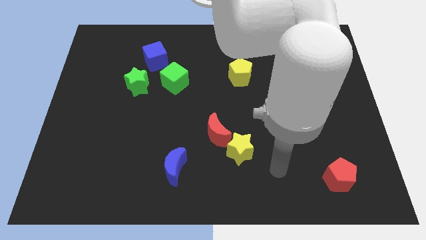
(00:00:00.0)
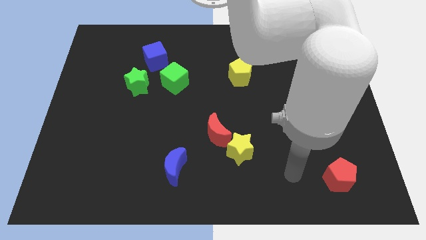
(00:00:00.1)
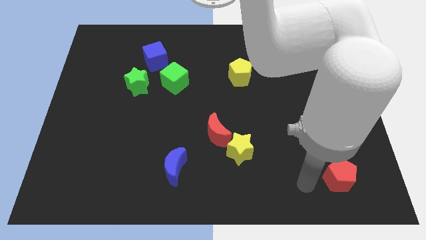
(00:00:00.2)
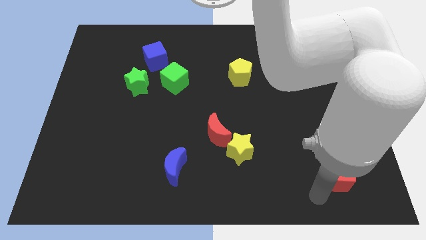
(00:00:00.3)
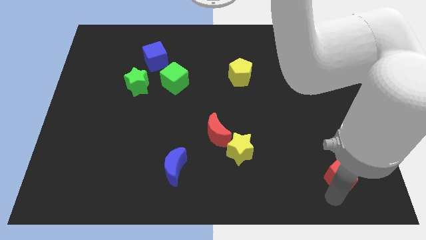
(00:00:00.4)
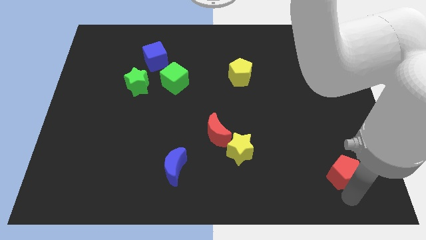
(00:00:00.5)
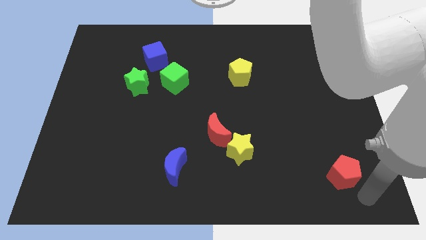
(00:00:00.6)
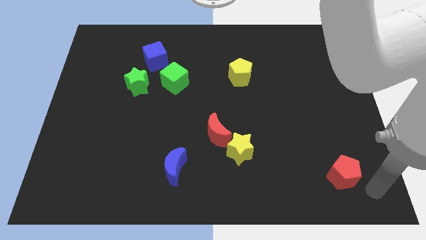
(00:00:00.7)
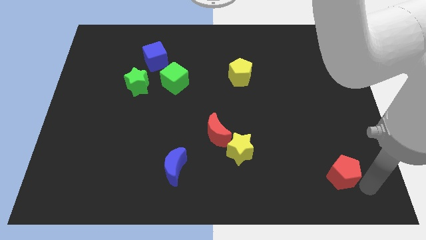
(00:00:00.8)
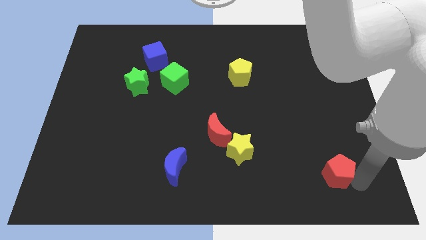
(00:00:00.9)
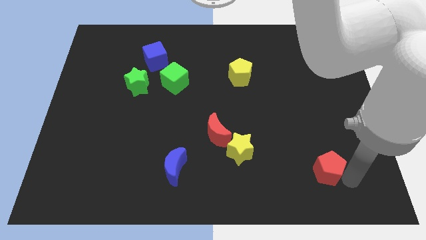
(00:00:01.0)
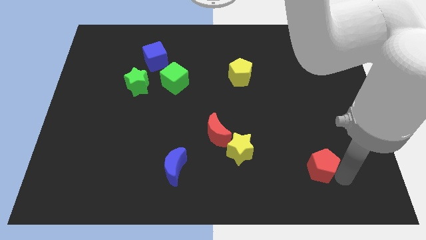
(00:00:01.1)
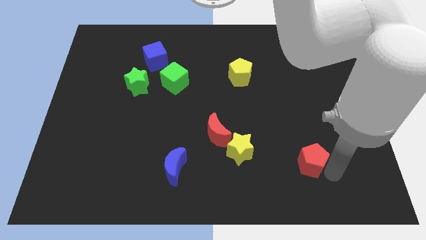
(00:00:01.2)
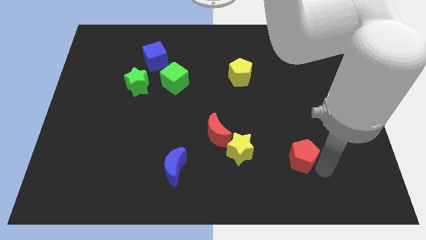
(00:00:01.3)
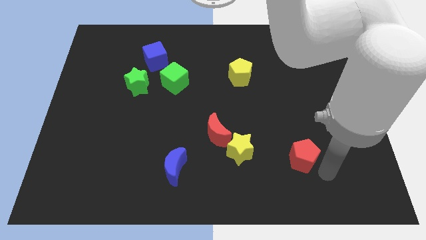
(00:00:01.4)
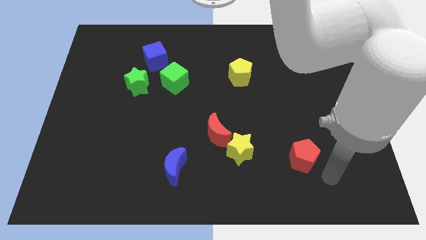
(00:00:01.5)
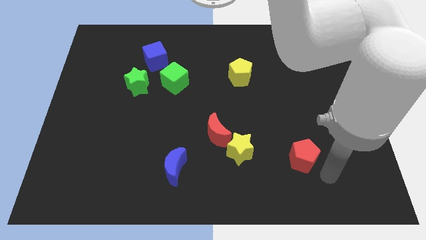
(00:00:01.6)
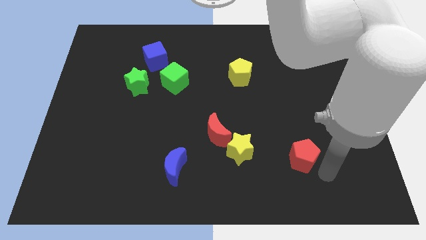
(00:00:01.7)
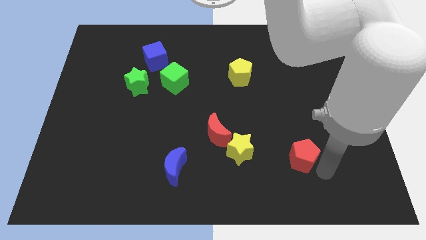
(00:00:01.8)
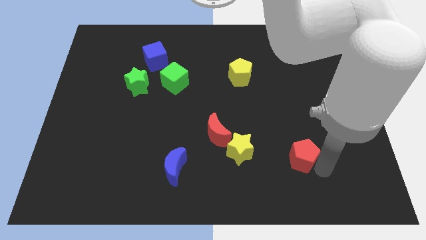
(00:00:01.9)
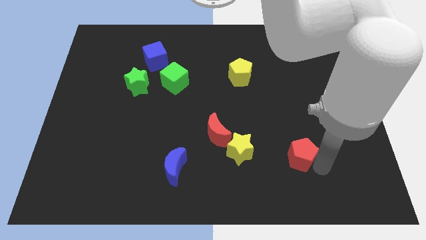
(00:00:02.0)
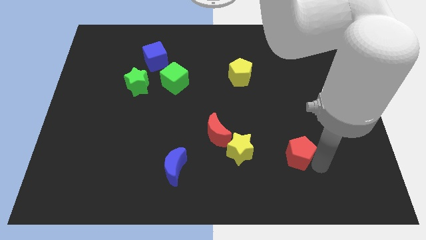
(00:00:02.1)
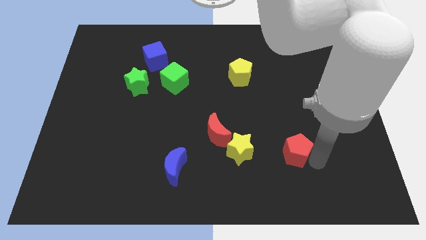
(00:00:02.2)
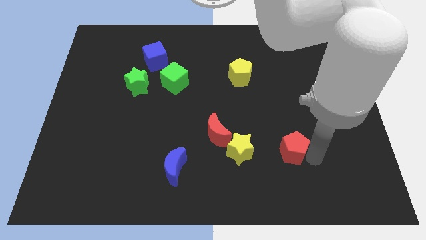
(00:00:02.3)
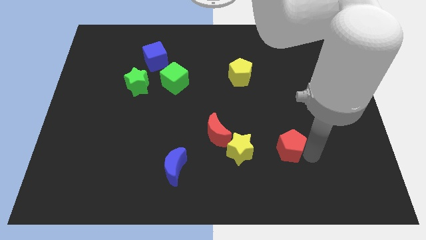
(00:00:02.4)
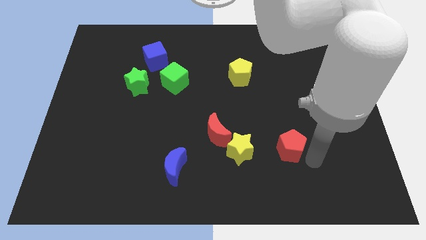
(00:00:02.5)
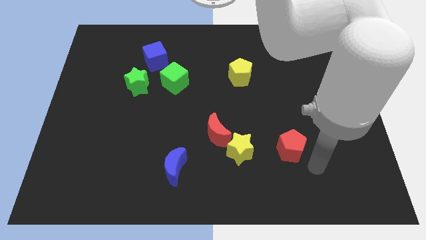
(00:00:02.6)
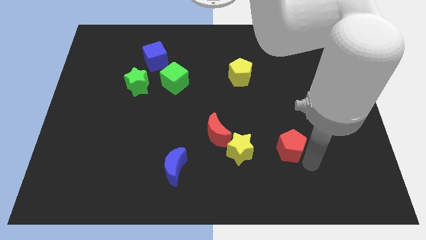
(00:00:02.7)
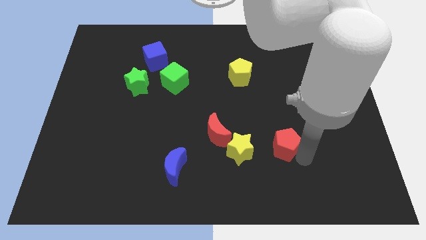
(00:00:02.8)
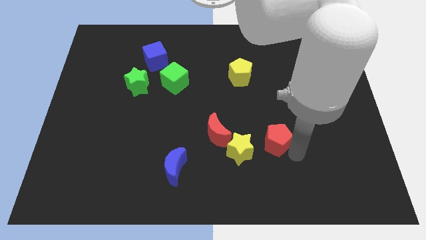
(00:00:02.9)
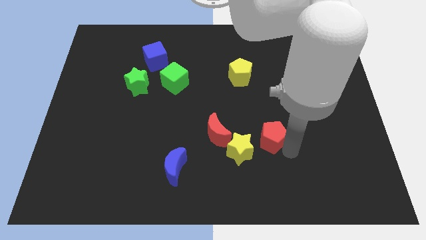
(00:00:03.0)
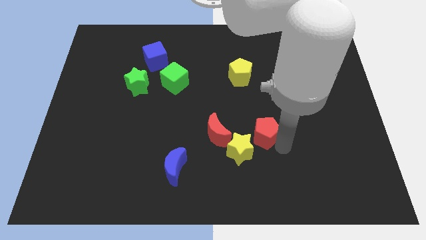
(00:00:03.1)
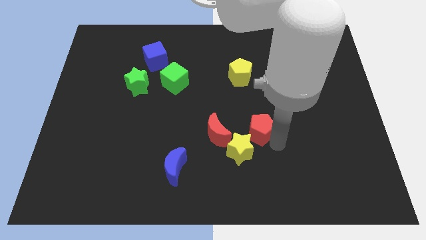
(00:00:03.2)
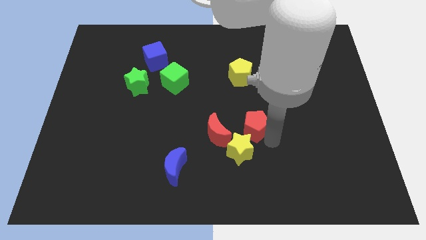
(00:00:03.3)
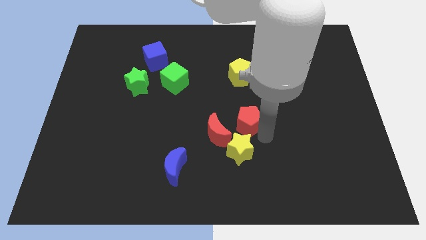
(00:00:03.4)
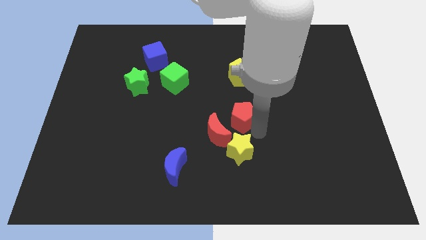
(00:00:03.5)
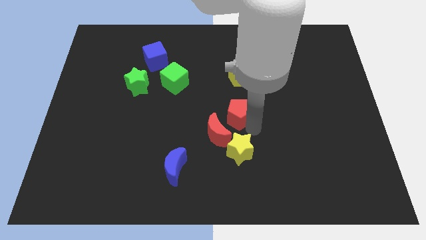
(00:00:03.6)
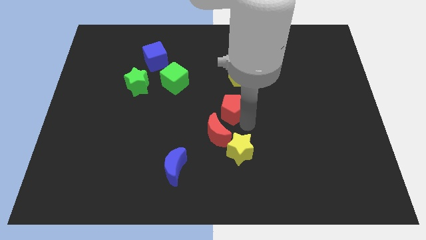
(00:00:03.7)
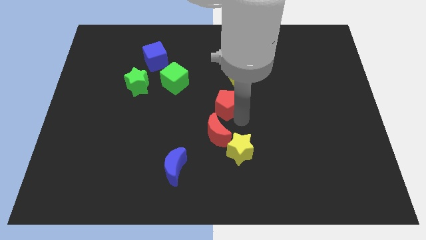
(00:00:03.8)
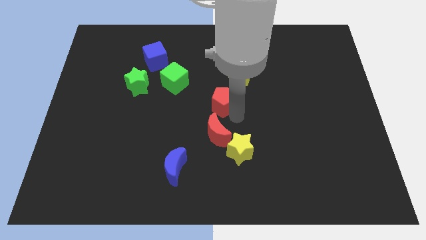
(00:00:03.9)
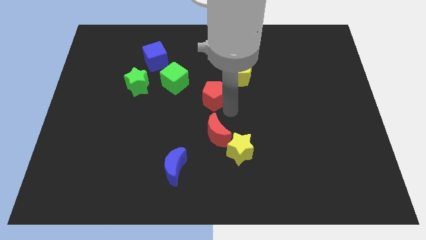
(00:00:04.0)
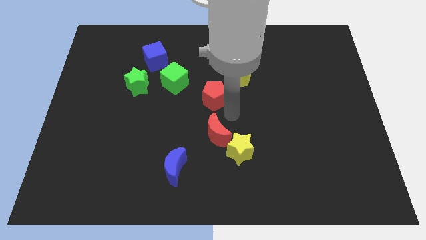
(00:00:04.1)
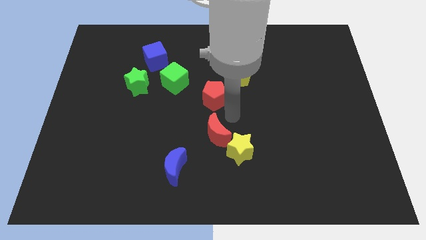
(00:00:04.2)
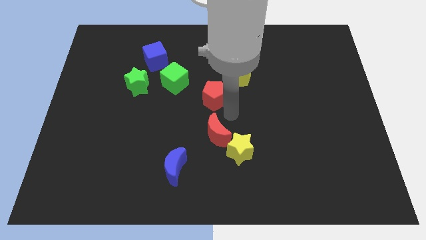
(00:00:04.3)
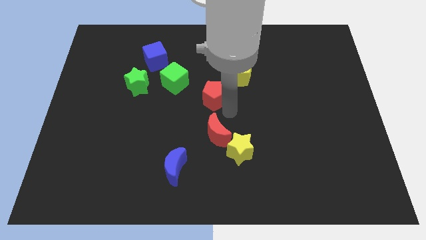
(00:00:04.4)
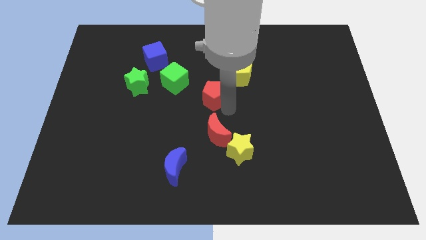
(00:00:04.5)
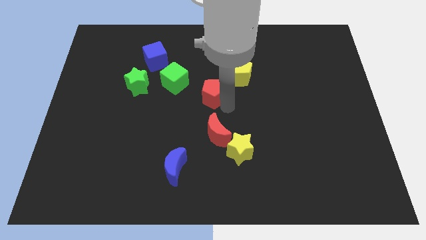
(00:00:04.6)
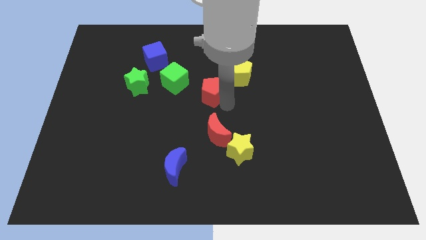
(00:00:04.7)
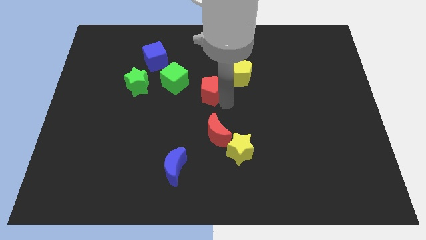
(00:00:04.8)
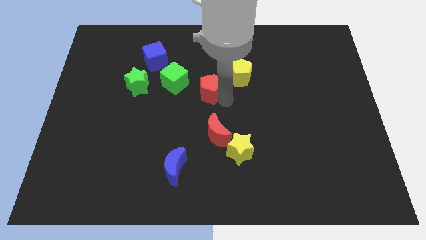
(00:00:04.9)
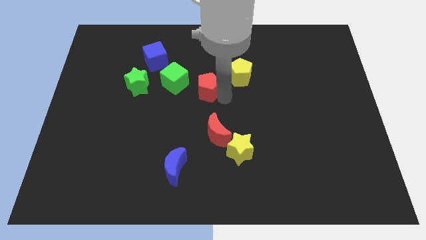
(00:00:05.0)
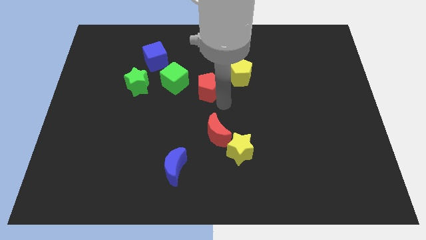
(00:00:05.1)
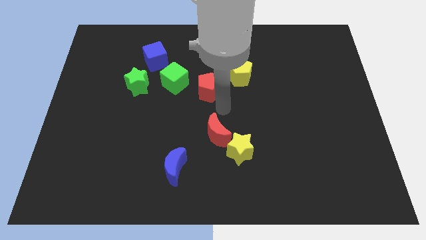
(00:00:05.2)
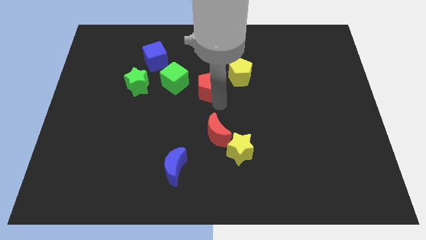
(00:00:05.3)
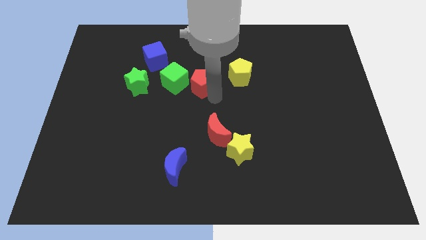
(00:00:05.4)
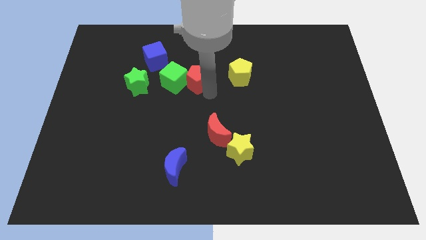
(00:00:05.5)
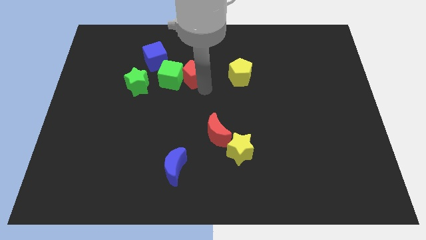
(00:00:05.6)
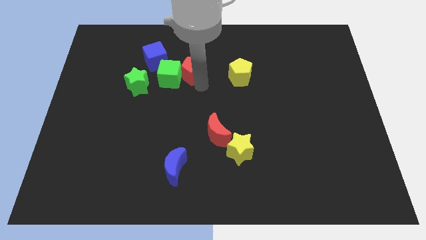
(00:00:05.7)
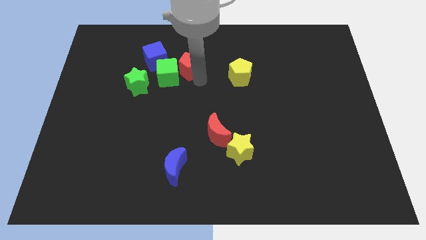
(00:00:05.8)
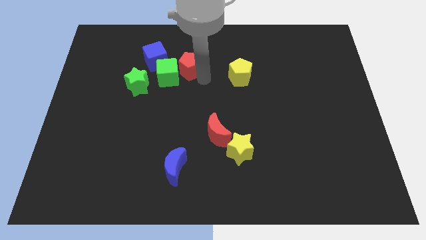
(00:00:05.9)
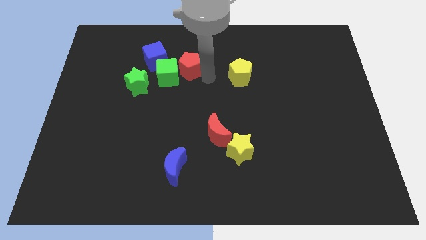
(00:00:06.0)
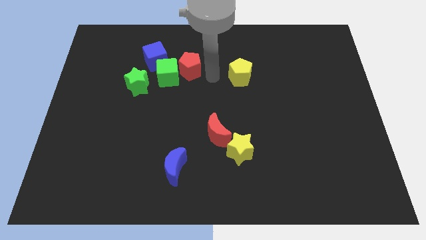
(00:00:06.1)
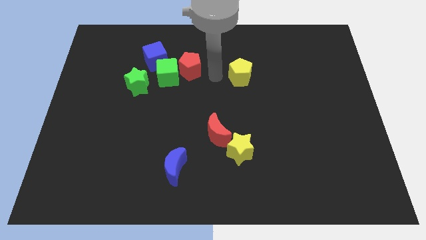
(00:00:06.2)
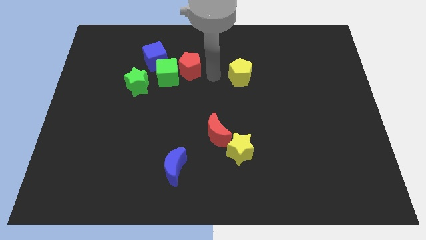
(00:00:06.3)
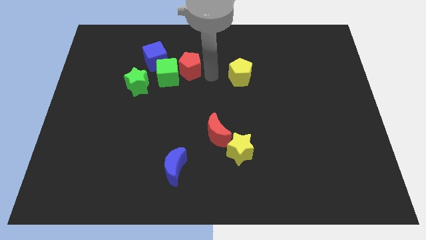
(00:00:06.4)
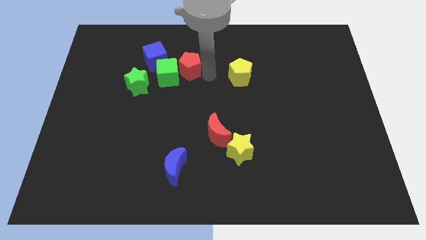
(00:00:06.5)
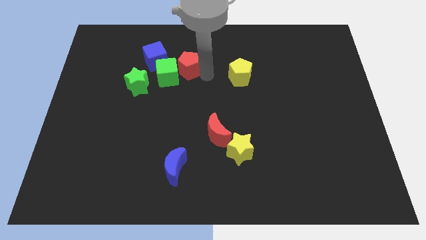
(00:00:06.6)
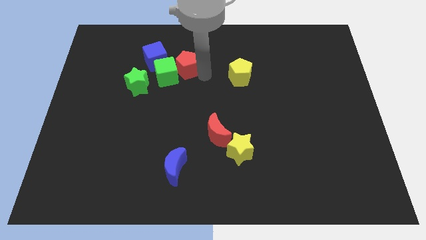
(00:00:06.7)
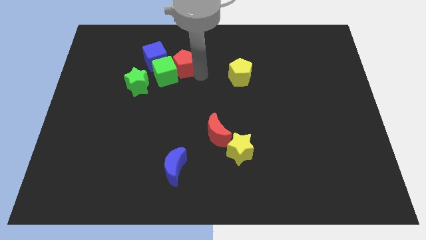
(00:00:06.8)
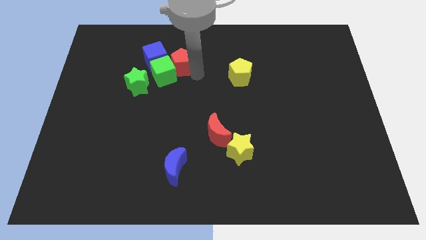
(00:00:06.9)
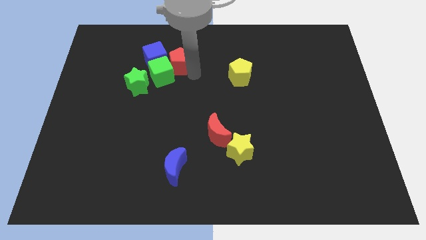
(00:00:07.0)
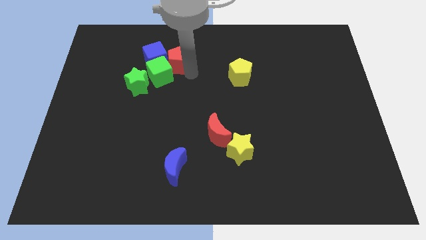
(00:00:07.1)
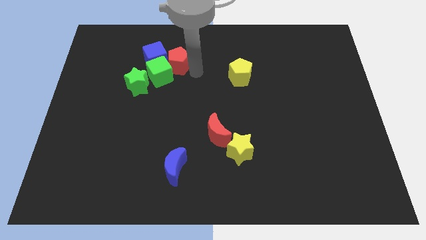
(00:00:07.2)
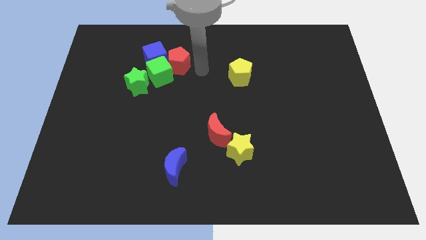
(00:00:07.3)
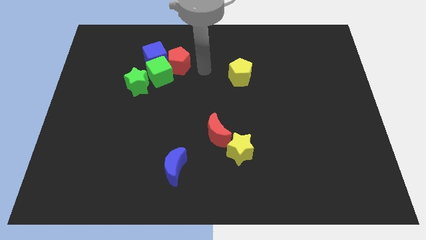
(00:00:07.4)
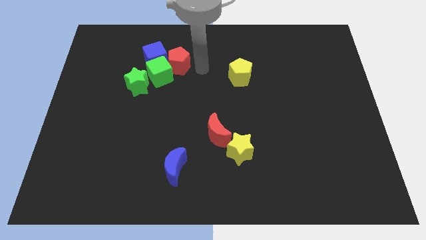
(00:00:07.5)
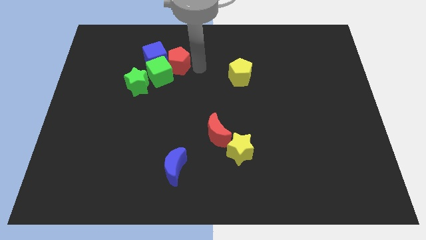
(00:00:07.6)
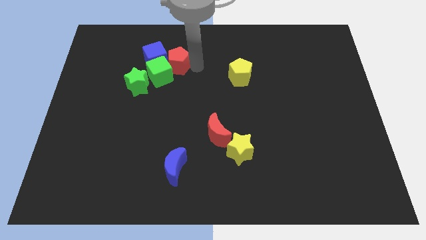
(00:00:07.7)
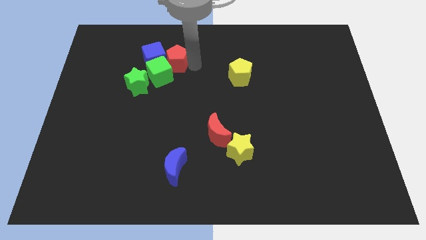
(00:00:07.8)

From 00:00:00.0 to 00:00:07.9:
push the red pentagon to the blue cube
